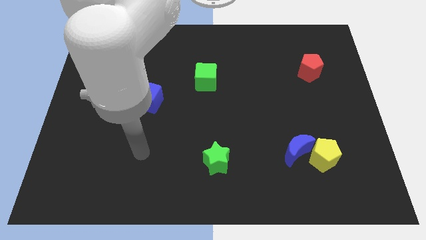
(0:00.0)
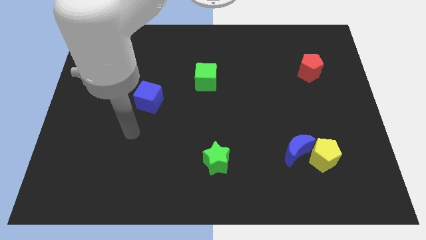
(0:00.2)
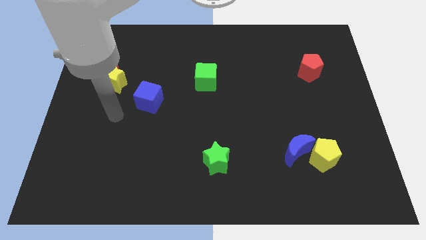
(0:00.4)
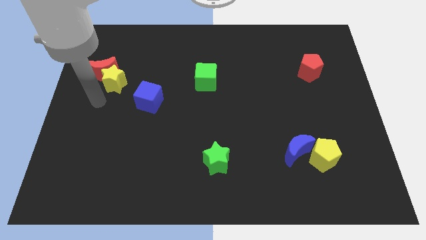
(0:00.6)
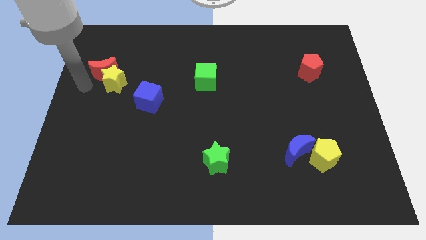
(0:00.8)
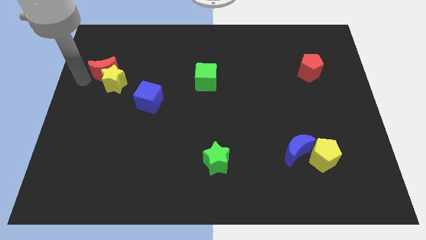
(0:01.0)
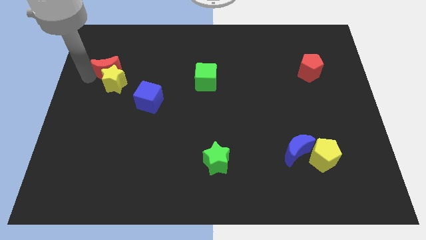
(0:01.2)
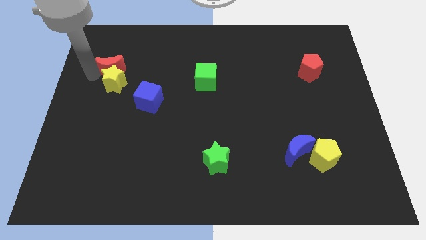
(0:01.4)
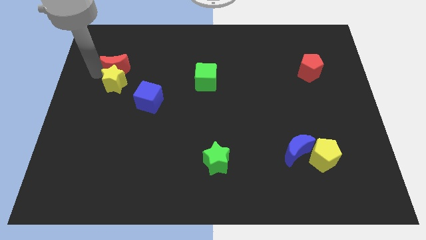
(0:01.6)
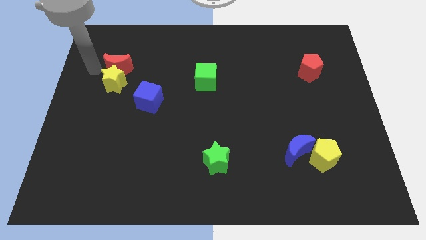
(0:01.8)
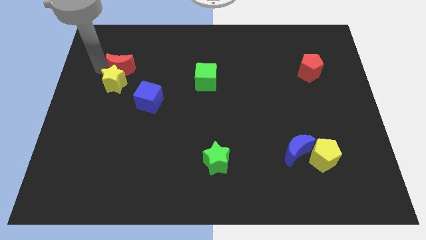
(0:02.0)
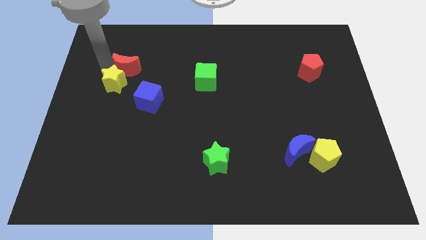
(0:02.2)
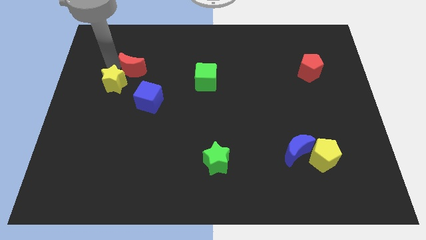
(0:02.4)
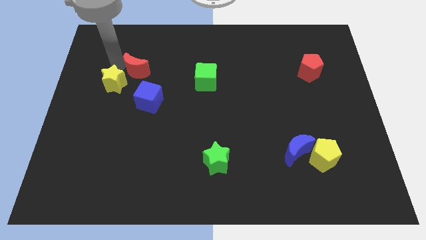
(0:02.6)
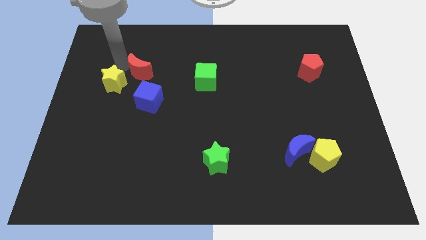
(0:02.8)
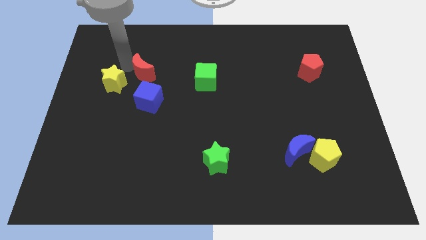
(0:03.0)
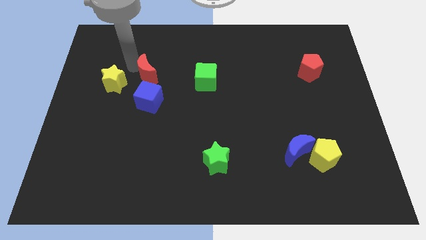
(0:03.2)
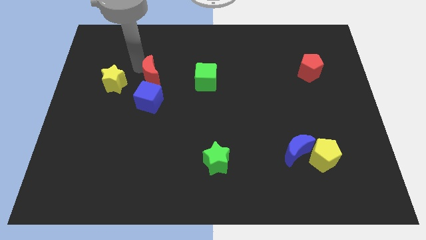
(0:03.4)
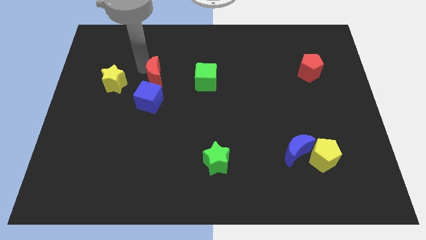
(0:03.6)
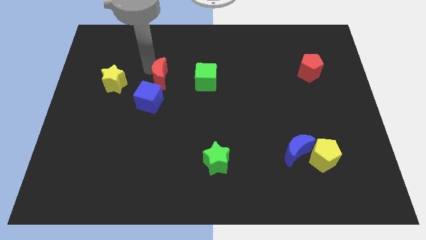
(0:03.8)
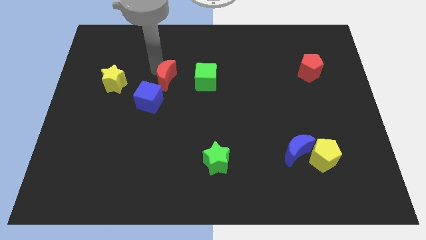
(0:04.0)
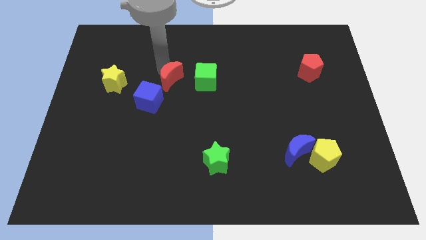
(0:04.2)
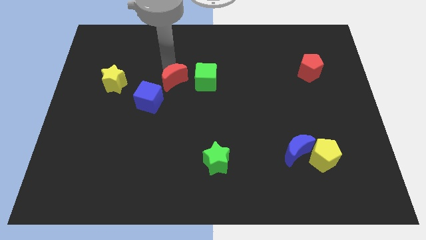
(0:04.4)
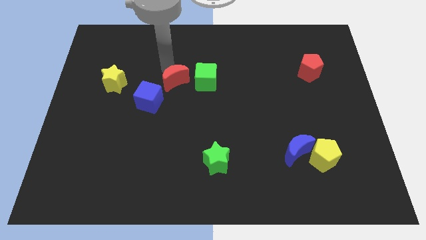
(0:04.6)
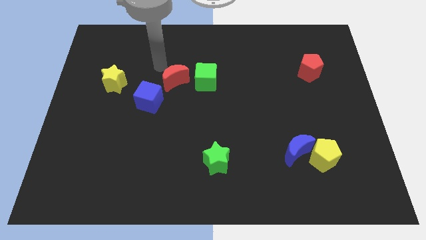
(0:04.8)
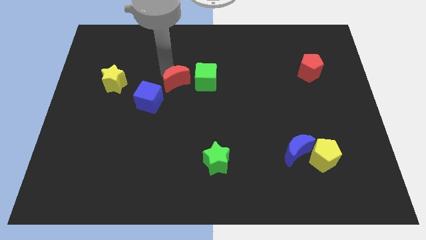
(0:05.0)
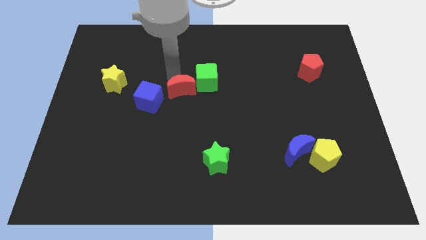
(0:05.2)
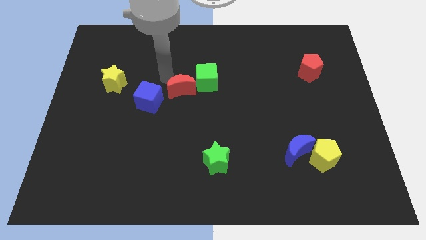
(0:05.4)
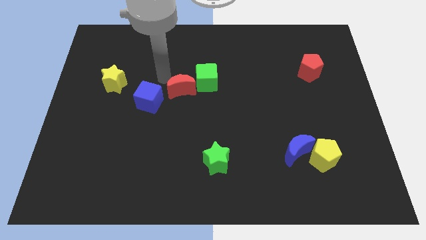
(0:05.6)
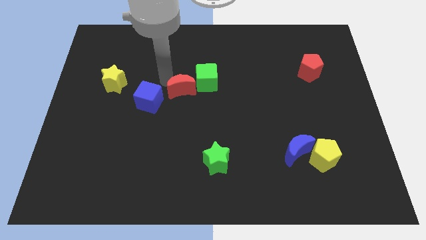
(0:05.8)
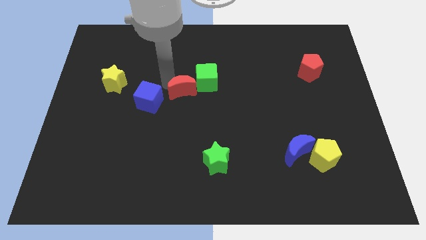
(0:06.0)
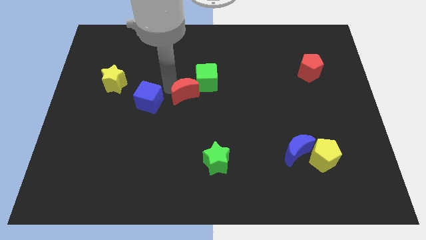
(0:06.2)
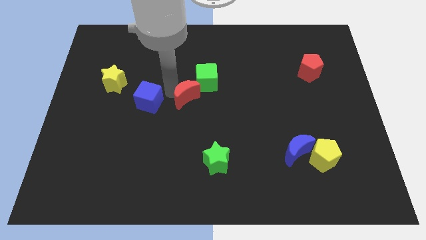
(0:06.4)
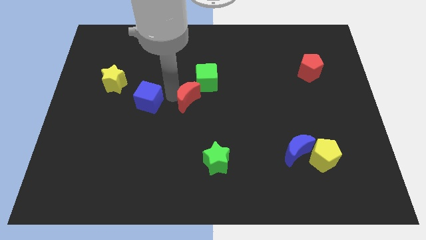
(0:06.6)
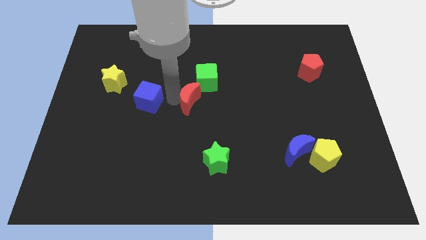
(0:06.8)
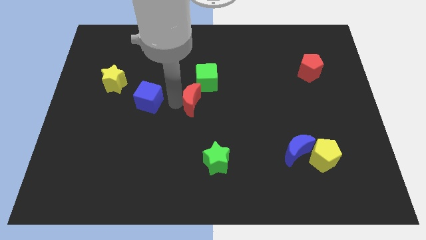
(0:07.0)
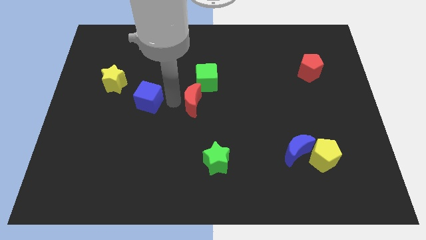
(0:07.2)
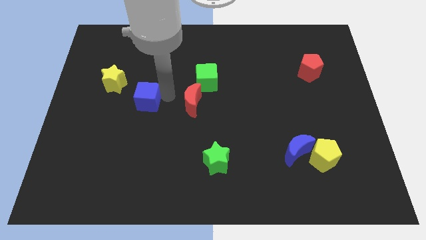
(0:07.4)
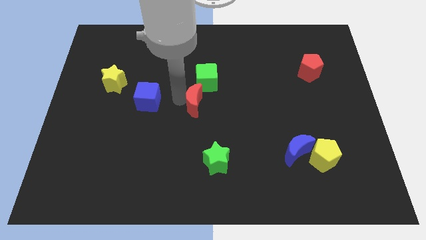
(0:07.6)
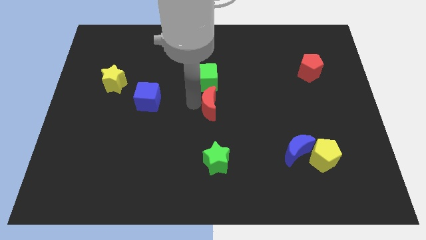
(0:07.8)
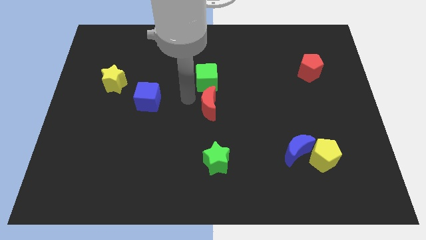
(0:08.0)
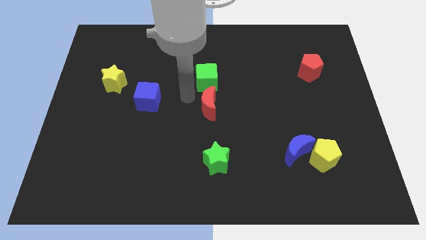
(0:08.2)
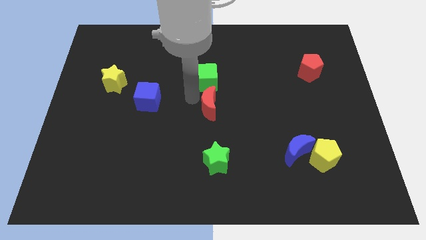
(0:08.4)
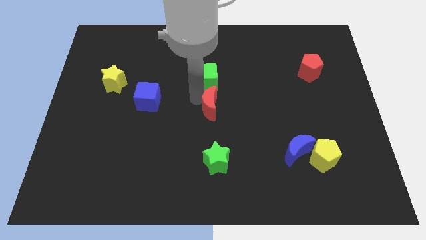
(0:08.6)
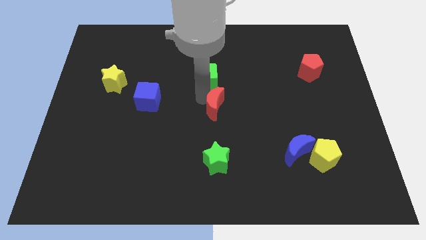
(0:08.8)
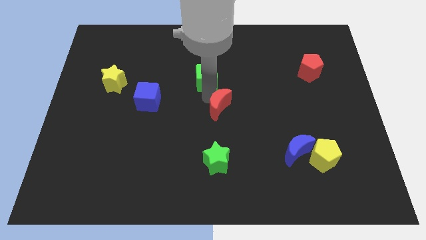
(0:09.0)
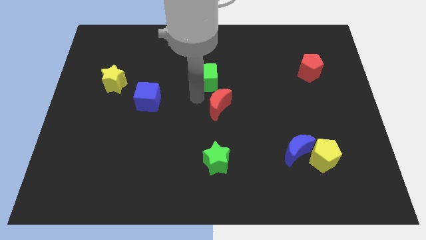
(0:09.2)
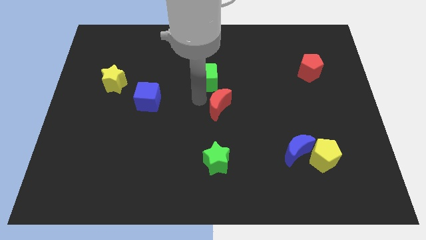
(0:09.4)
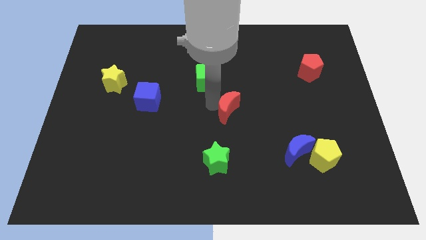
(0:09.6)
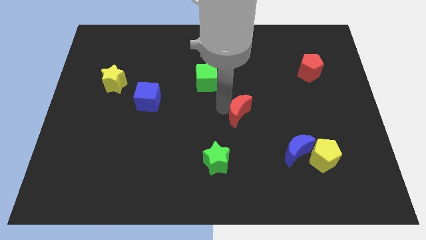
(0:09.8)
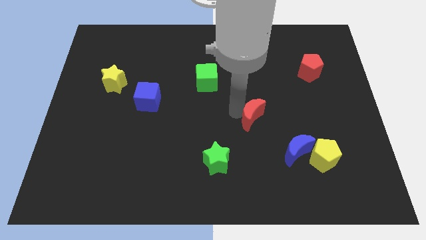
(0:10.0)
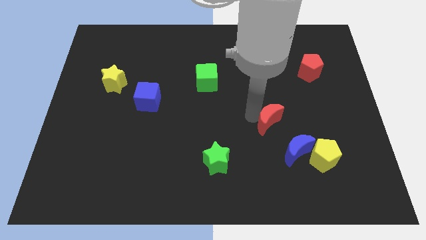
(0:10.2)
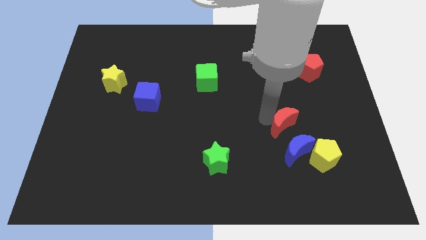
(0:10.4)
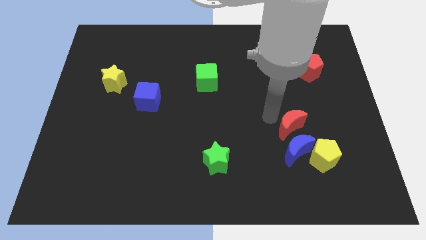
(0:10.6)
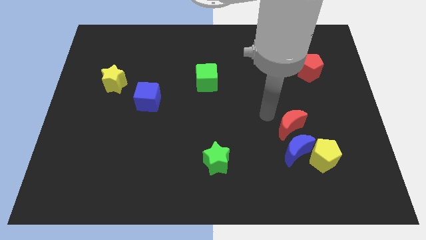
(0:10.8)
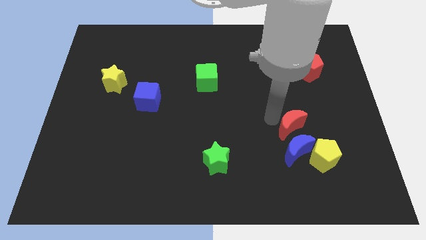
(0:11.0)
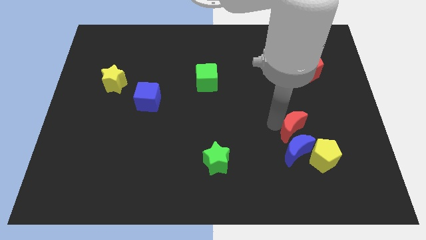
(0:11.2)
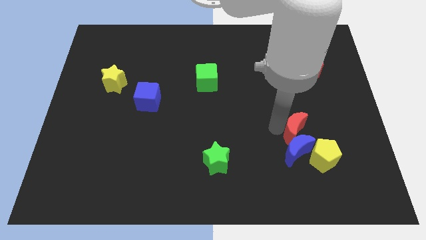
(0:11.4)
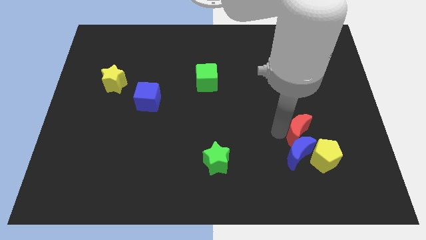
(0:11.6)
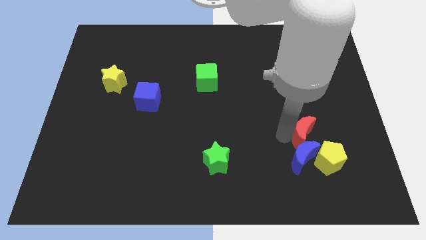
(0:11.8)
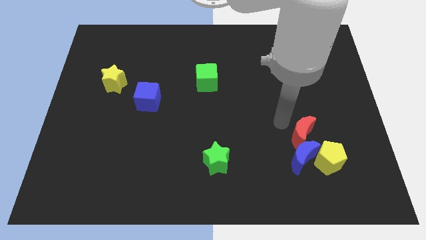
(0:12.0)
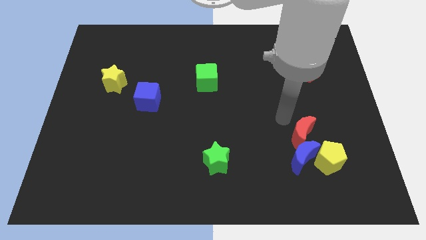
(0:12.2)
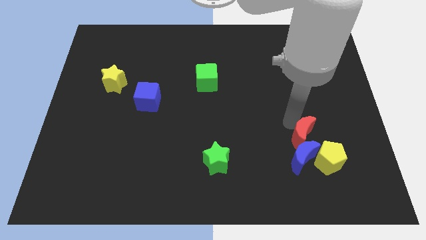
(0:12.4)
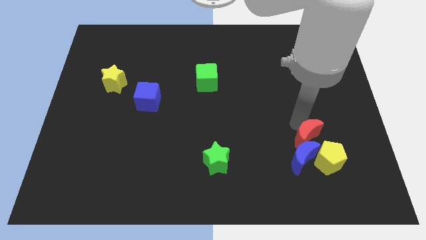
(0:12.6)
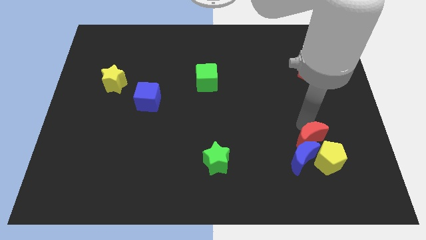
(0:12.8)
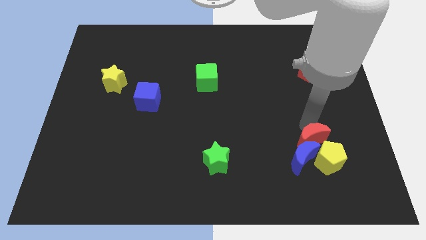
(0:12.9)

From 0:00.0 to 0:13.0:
put the red moon next to the yellow pentagon

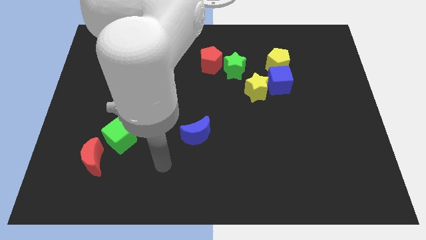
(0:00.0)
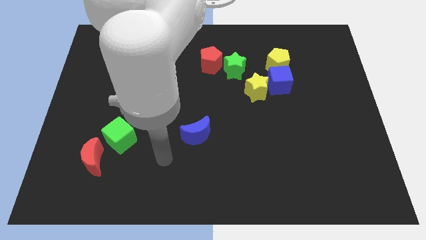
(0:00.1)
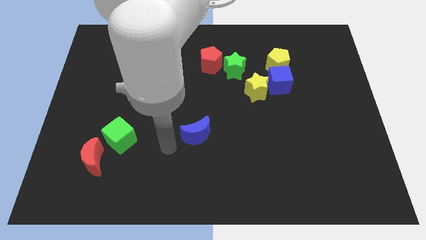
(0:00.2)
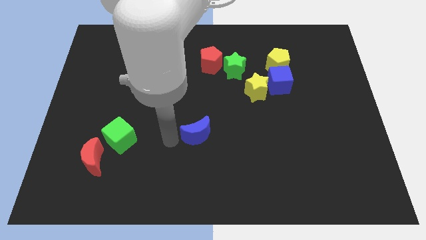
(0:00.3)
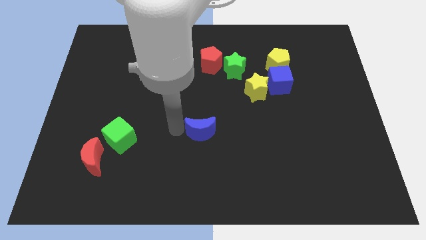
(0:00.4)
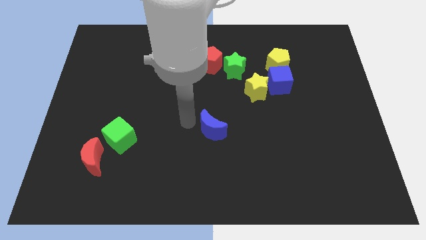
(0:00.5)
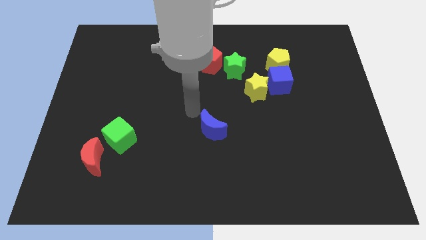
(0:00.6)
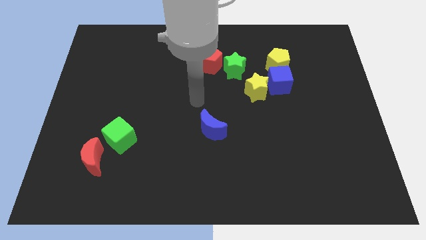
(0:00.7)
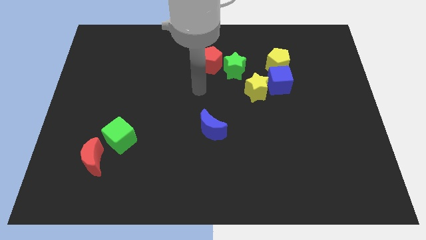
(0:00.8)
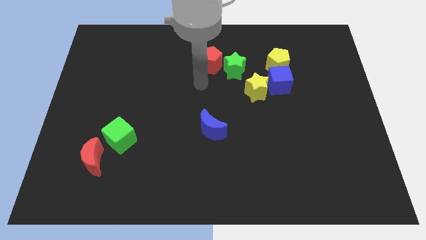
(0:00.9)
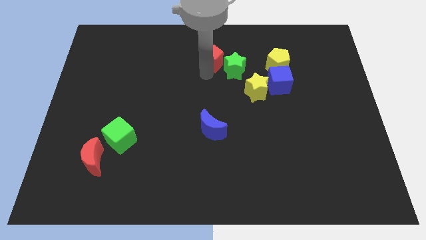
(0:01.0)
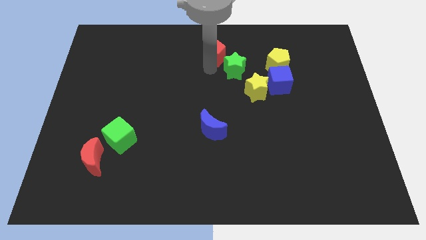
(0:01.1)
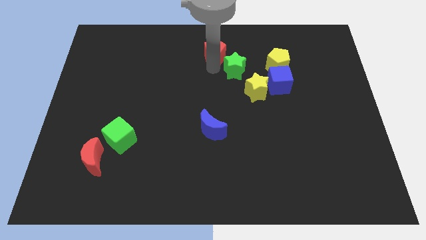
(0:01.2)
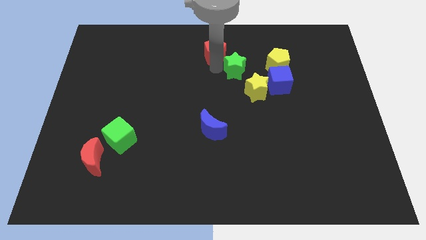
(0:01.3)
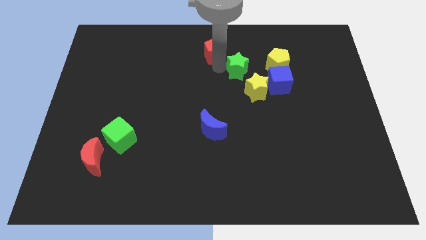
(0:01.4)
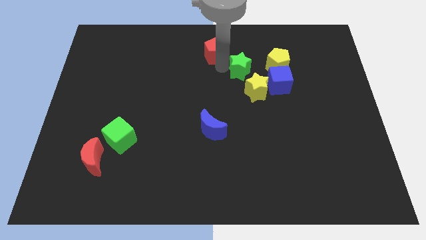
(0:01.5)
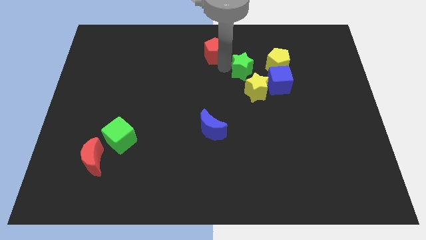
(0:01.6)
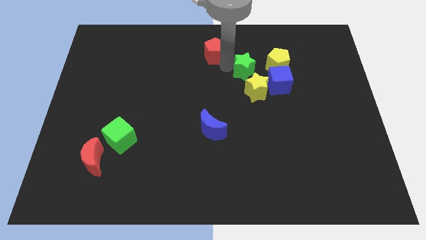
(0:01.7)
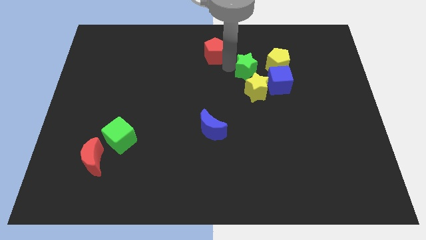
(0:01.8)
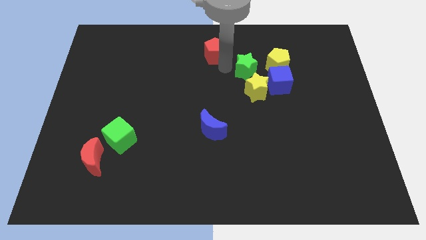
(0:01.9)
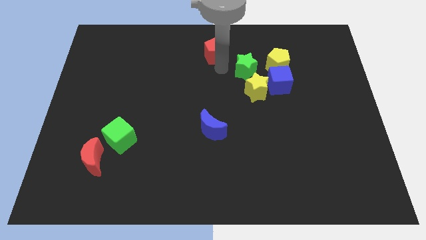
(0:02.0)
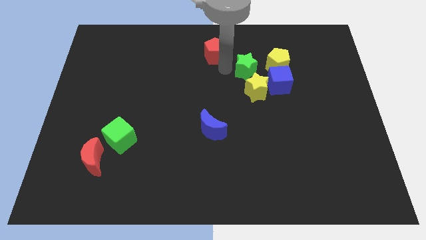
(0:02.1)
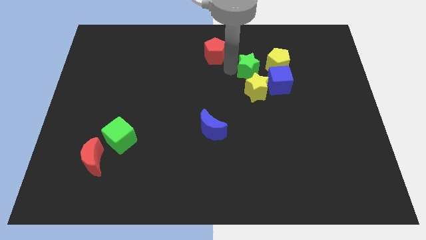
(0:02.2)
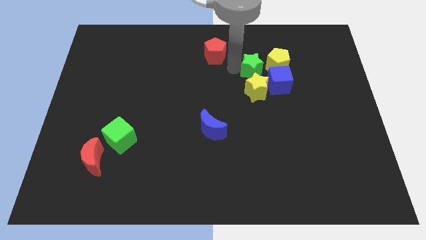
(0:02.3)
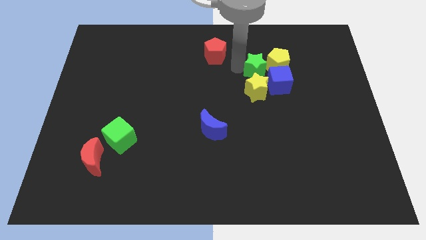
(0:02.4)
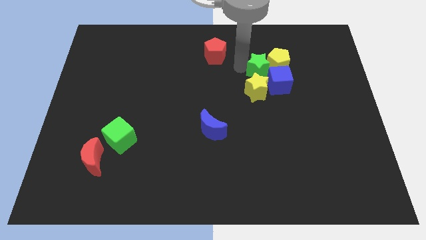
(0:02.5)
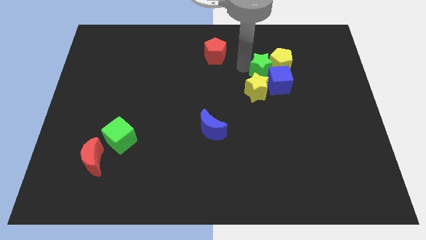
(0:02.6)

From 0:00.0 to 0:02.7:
push the green star close to the blue cube
